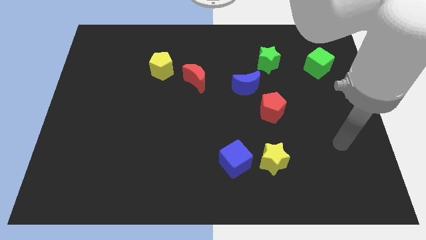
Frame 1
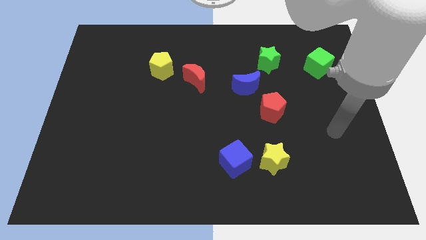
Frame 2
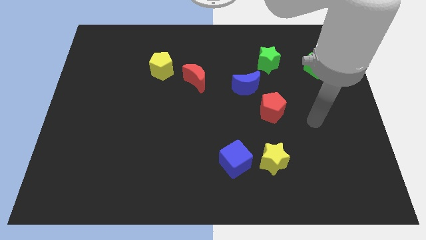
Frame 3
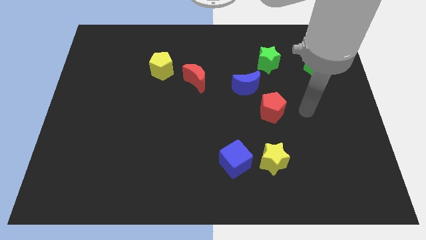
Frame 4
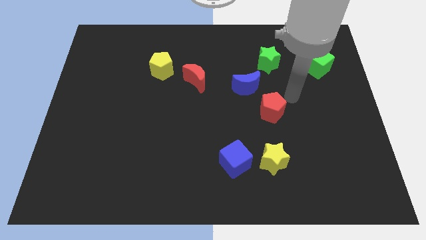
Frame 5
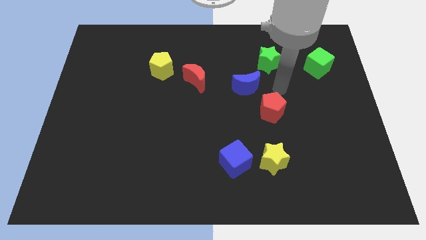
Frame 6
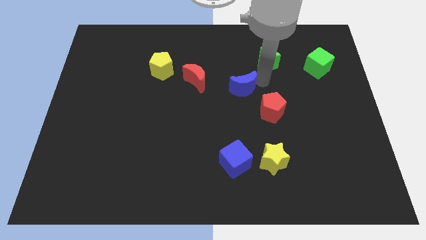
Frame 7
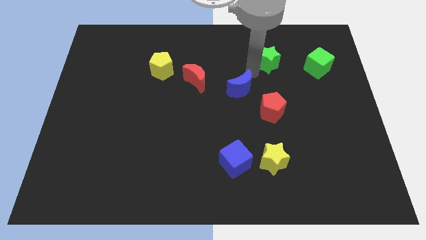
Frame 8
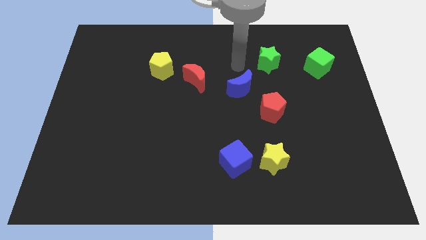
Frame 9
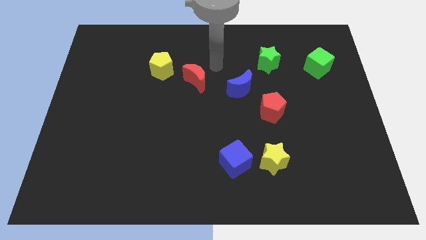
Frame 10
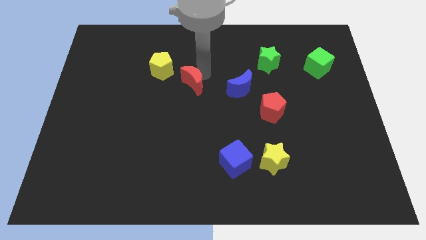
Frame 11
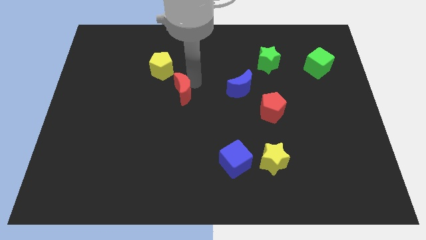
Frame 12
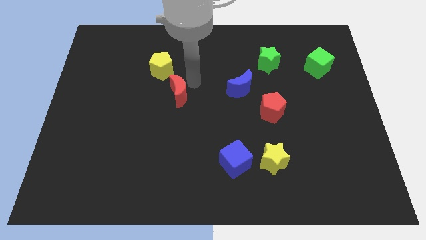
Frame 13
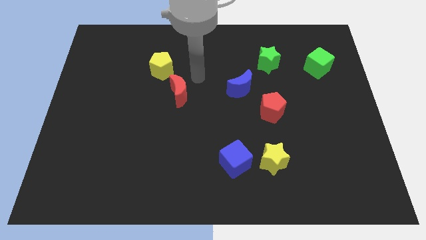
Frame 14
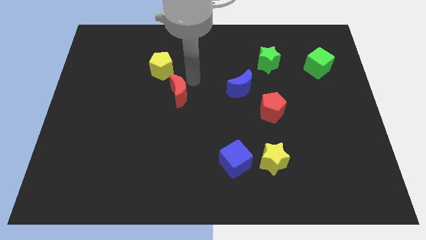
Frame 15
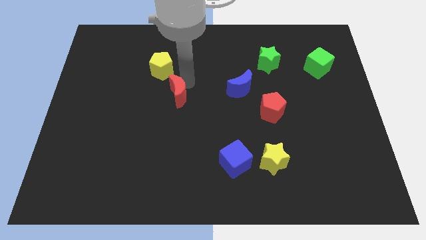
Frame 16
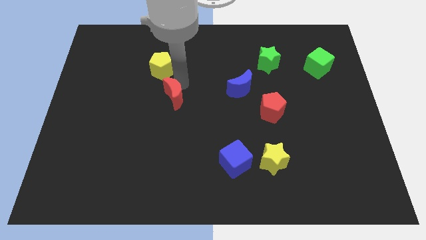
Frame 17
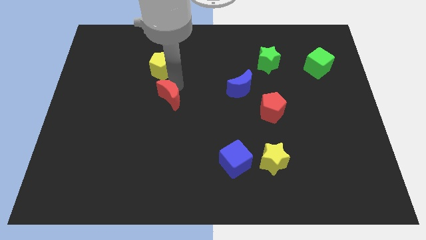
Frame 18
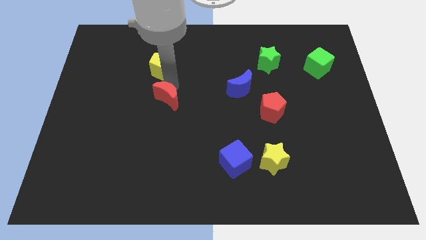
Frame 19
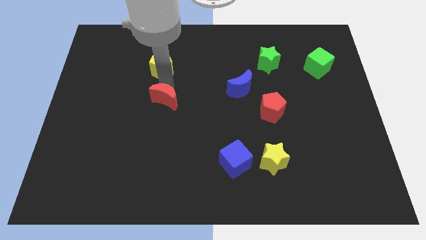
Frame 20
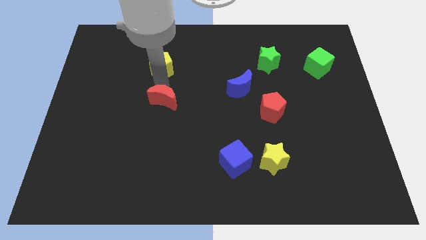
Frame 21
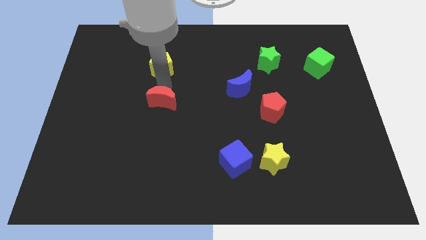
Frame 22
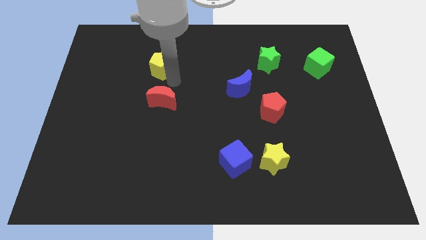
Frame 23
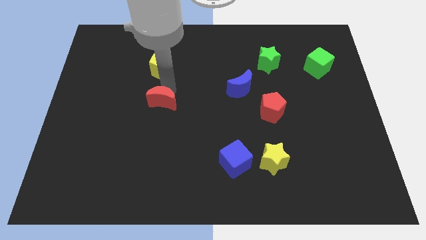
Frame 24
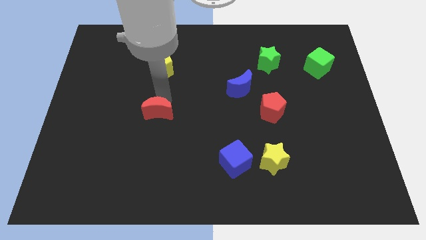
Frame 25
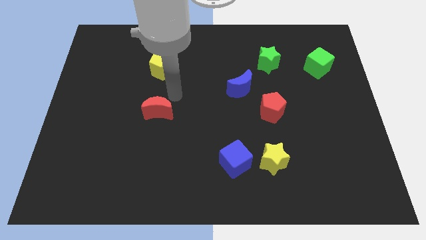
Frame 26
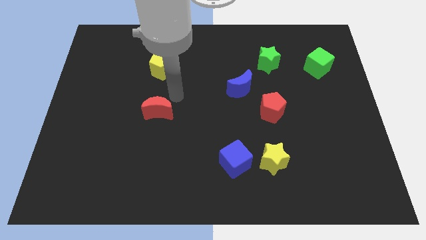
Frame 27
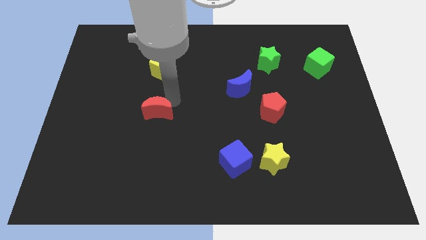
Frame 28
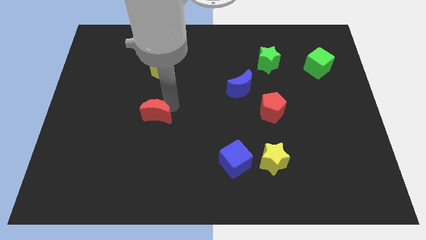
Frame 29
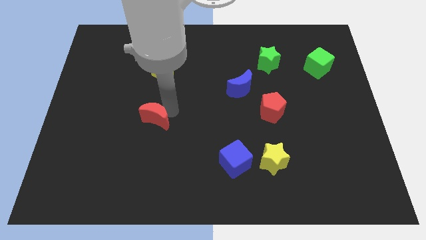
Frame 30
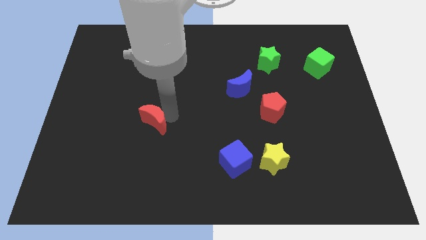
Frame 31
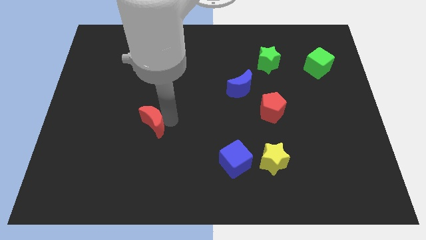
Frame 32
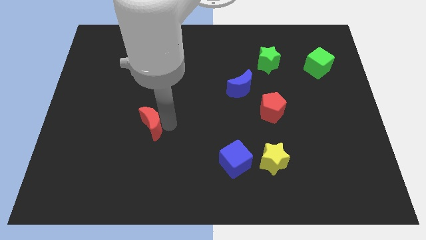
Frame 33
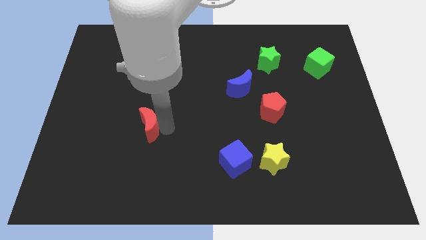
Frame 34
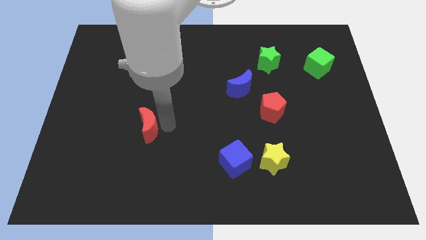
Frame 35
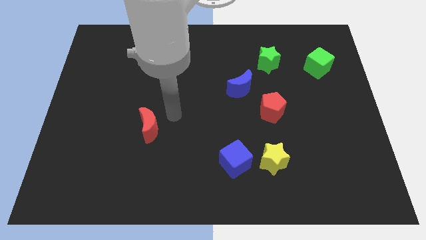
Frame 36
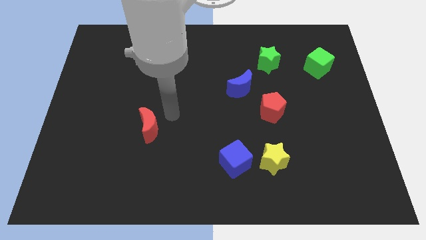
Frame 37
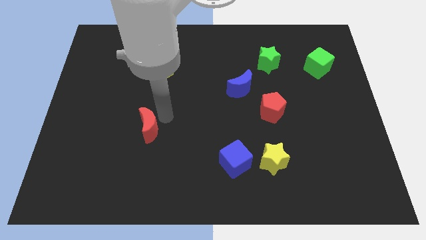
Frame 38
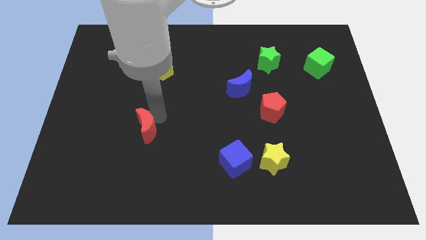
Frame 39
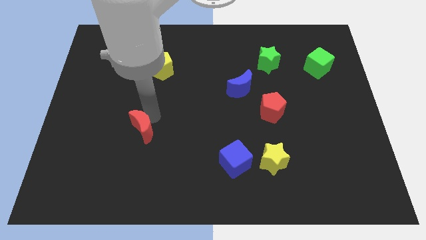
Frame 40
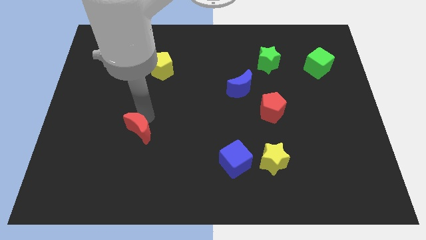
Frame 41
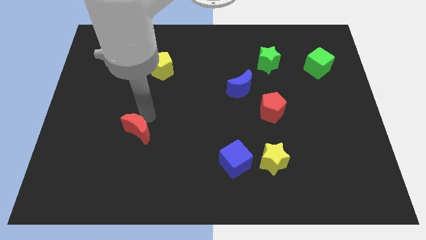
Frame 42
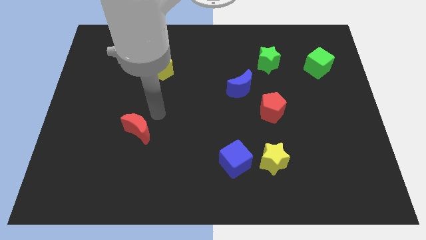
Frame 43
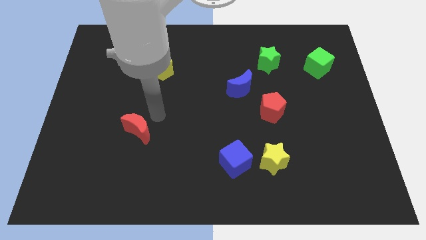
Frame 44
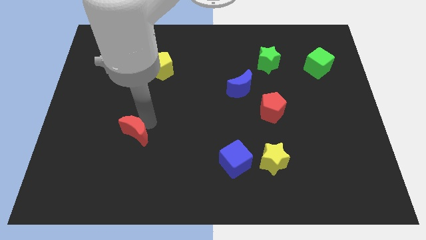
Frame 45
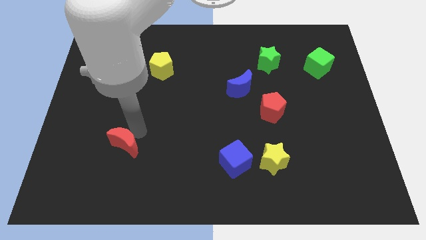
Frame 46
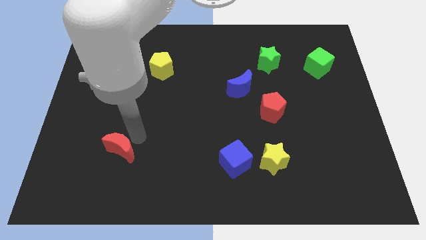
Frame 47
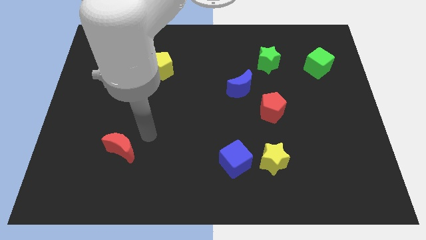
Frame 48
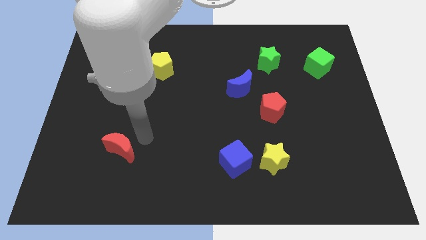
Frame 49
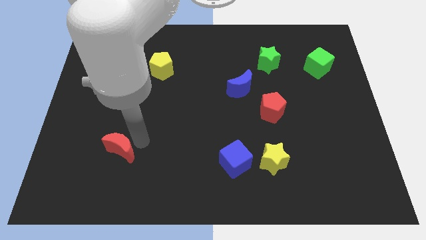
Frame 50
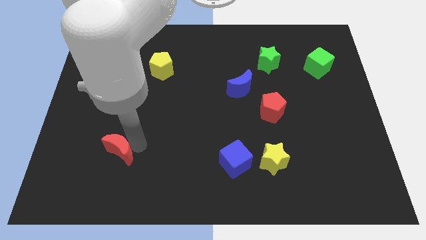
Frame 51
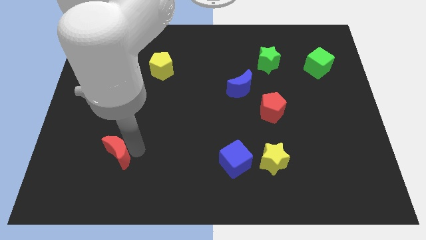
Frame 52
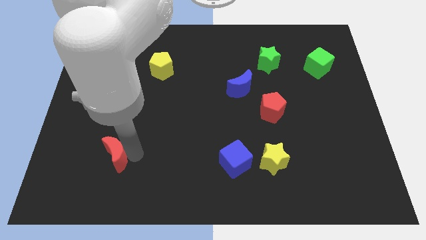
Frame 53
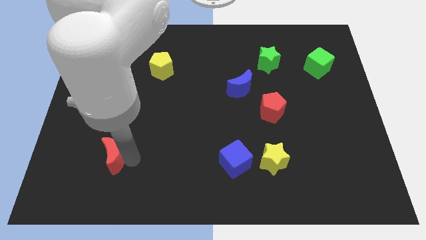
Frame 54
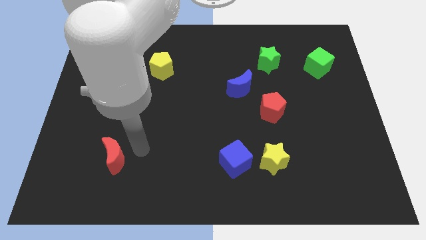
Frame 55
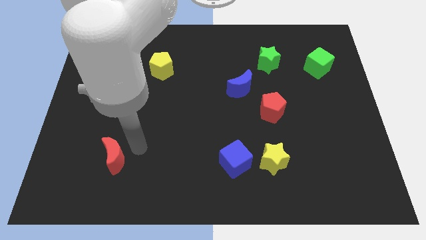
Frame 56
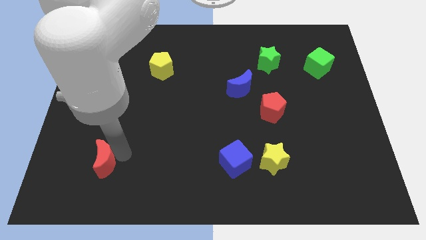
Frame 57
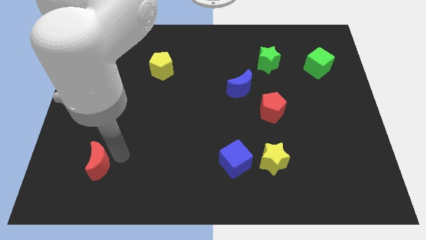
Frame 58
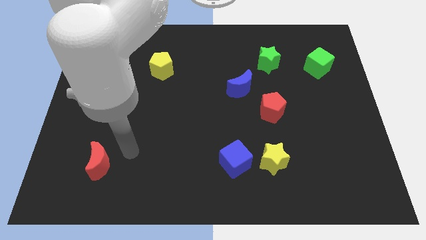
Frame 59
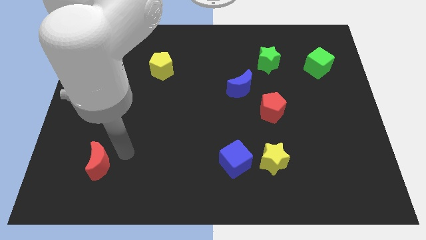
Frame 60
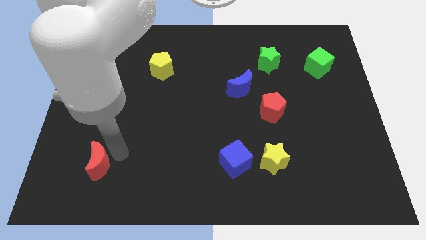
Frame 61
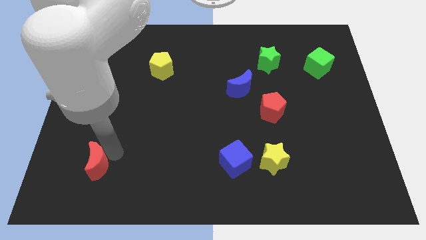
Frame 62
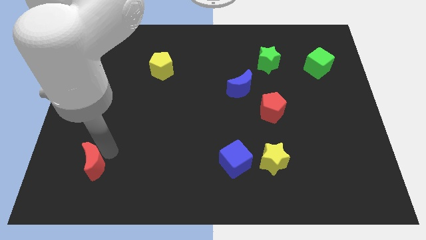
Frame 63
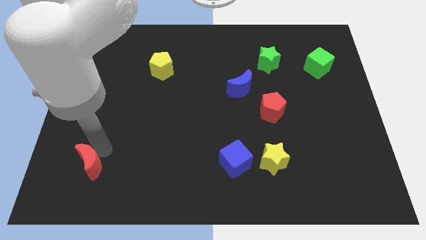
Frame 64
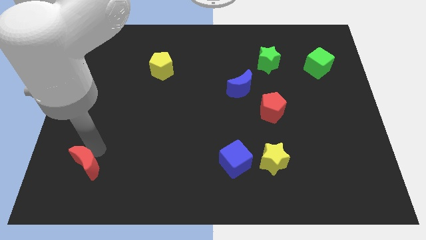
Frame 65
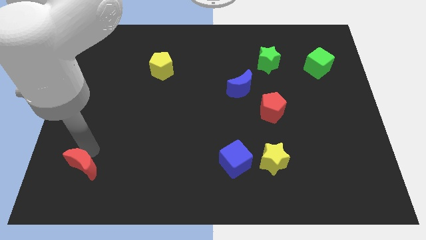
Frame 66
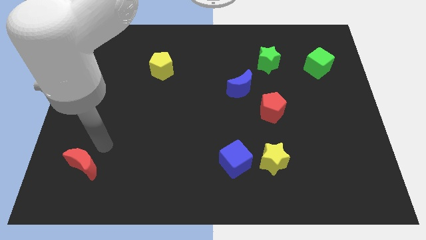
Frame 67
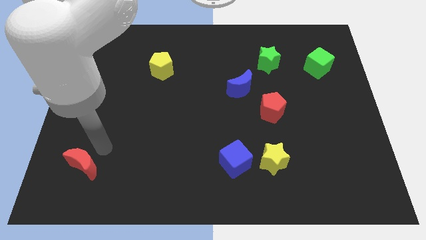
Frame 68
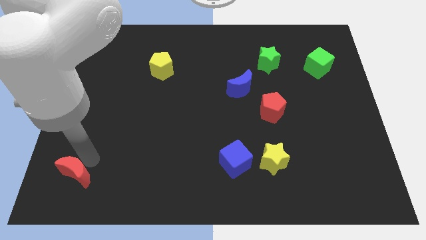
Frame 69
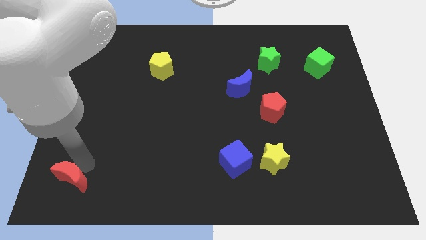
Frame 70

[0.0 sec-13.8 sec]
move the red moon to the bottom left

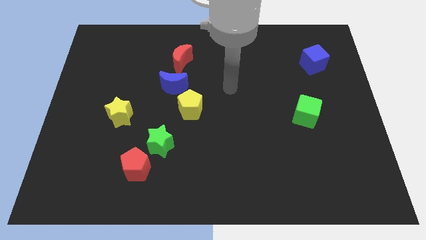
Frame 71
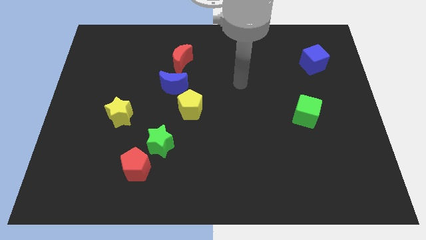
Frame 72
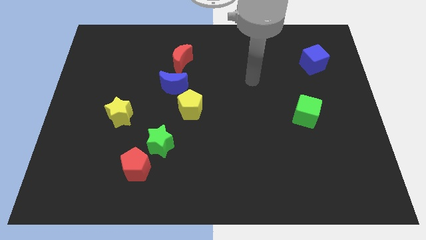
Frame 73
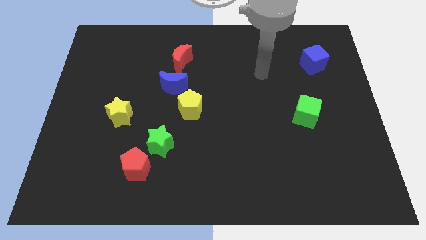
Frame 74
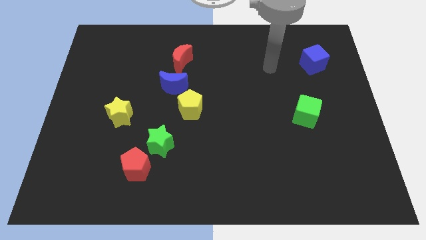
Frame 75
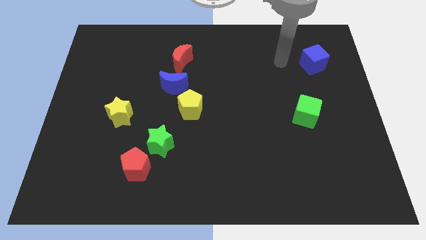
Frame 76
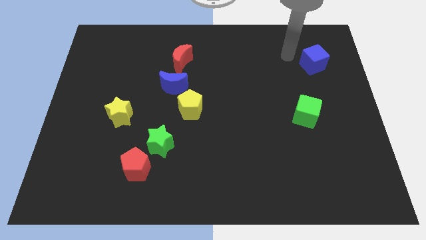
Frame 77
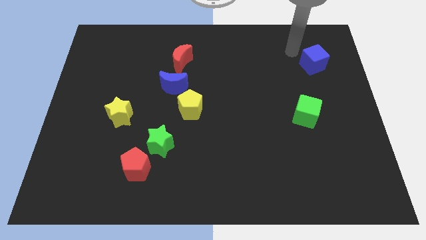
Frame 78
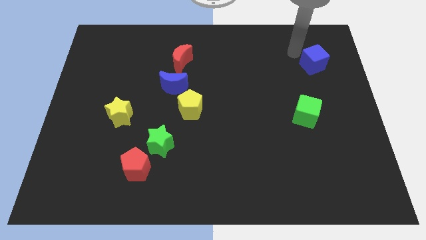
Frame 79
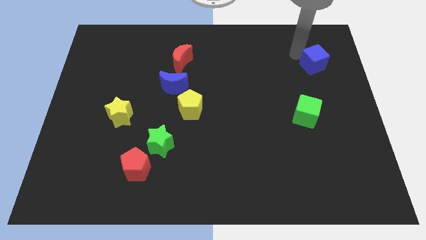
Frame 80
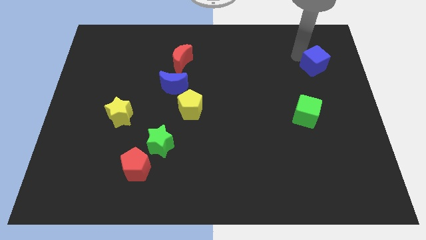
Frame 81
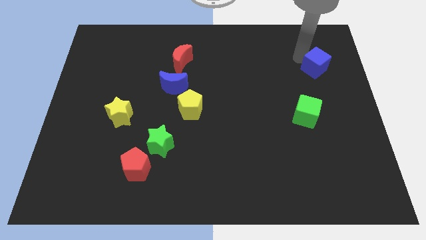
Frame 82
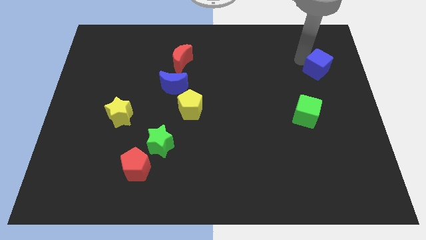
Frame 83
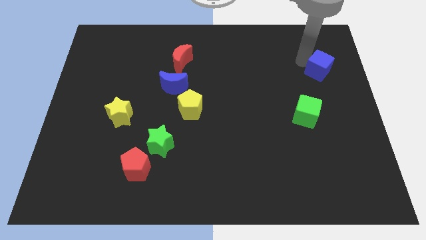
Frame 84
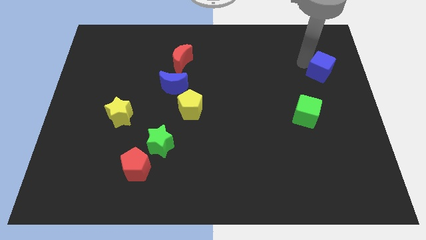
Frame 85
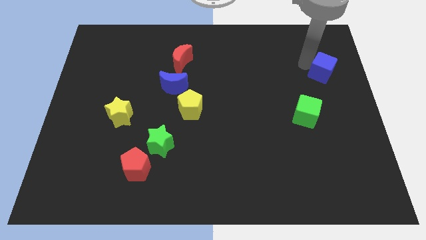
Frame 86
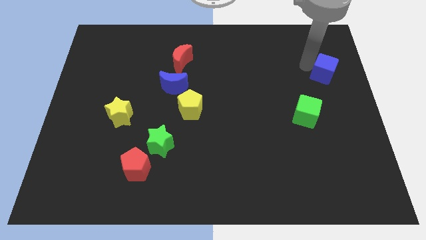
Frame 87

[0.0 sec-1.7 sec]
push the blue cube to the center right
